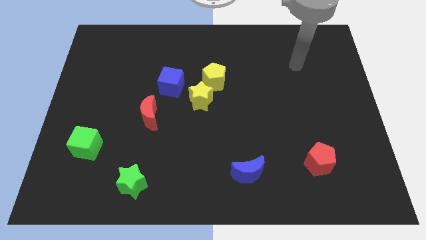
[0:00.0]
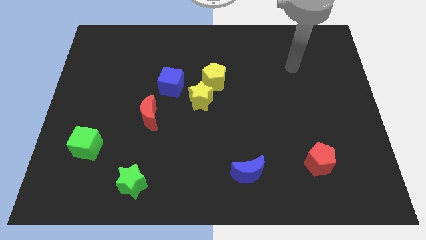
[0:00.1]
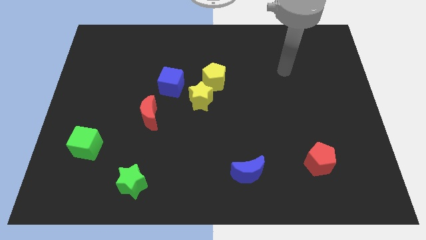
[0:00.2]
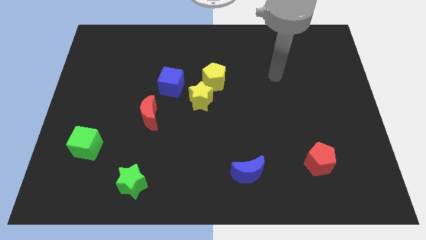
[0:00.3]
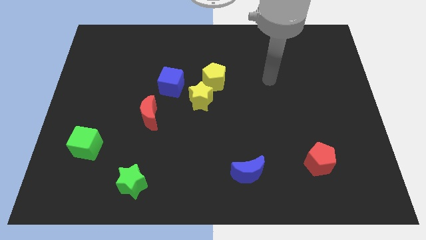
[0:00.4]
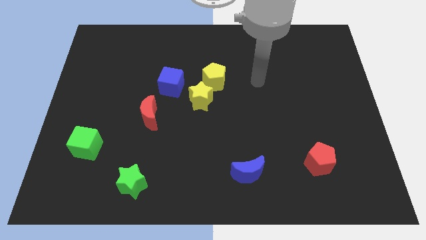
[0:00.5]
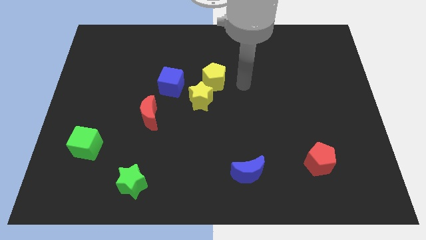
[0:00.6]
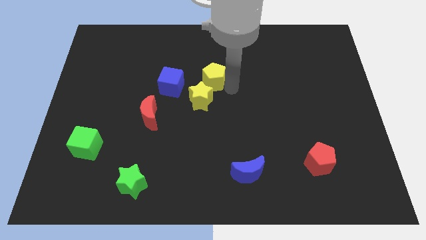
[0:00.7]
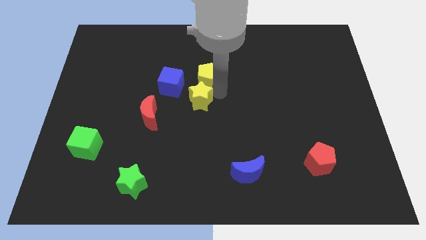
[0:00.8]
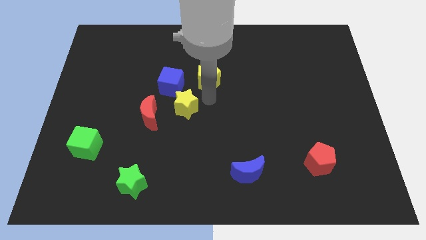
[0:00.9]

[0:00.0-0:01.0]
separate the yellow pentagon from the yellow star

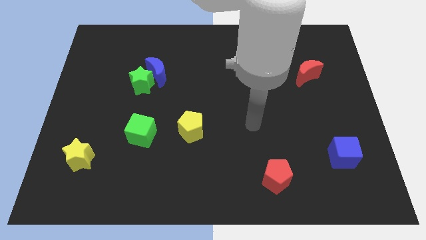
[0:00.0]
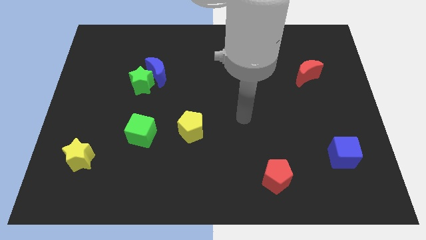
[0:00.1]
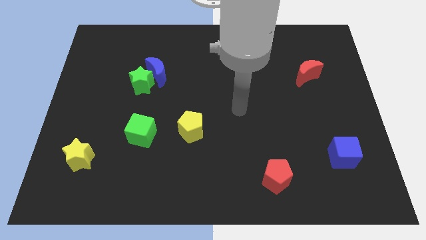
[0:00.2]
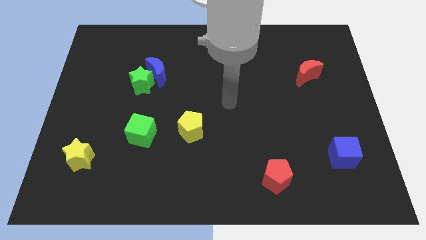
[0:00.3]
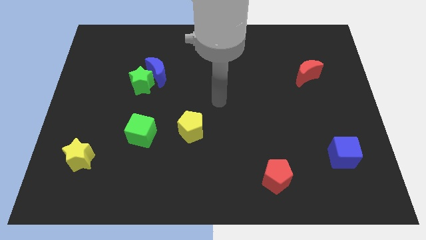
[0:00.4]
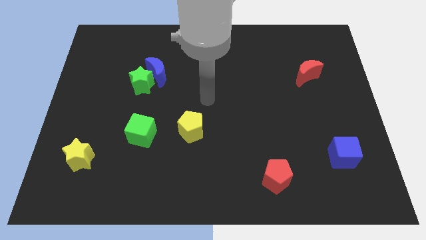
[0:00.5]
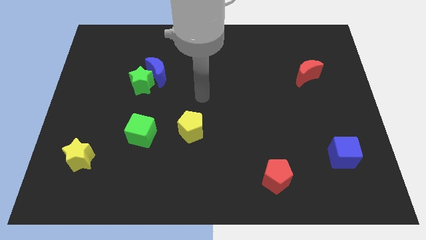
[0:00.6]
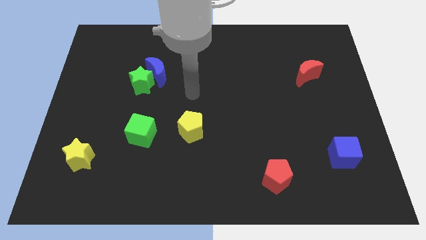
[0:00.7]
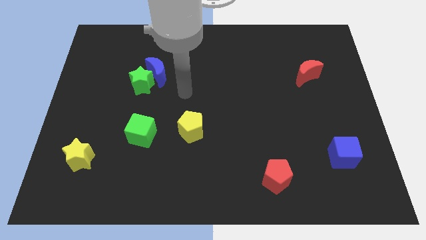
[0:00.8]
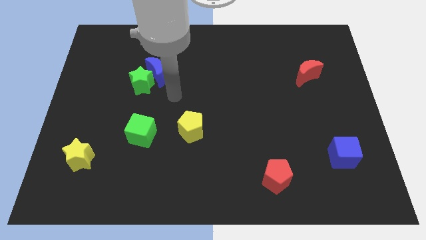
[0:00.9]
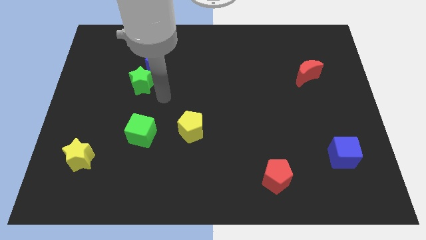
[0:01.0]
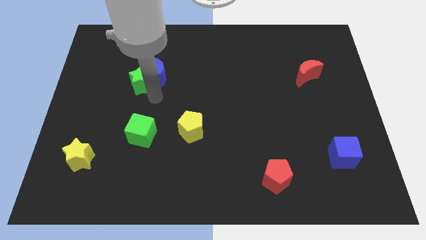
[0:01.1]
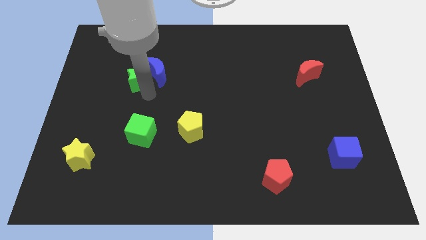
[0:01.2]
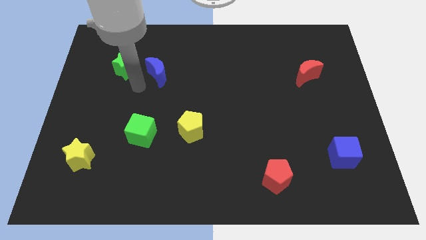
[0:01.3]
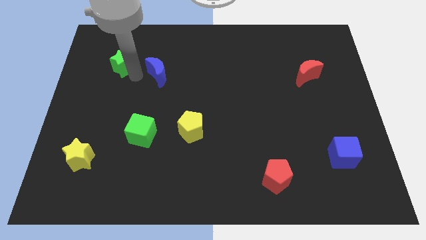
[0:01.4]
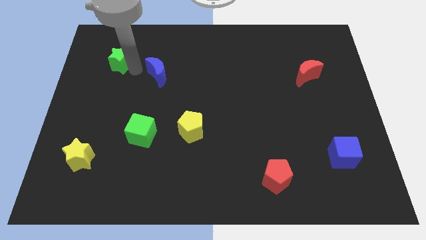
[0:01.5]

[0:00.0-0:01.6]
pull the blue moon apart from the green star

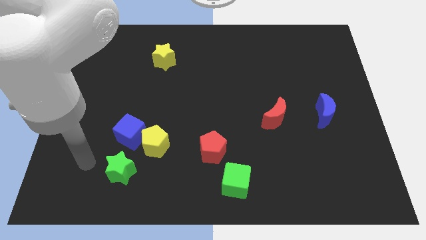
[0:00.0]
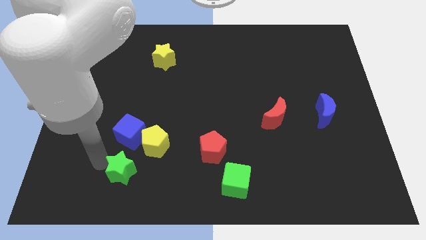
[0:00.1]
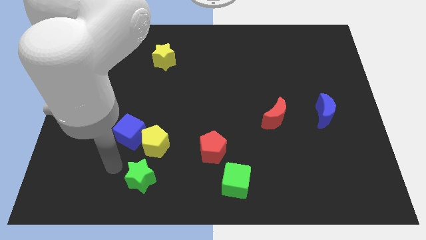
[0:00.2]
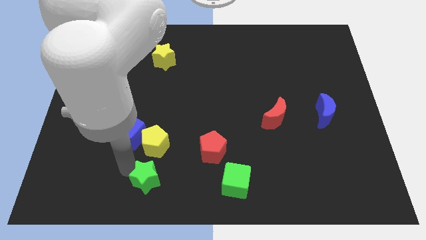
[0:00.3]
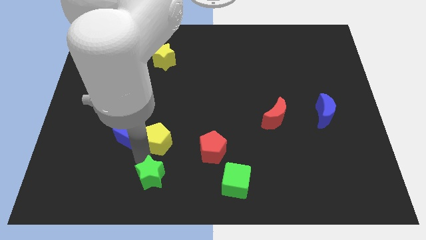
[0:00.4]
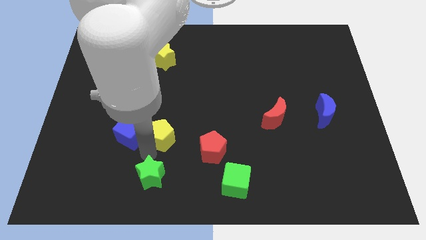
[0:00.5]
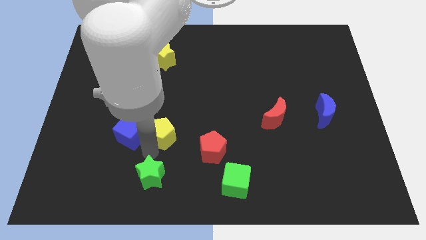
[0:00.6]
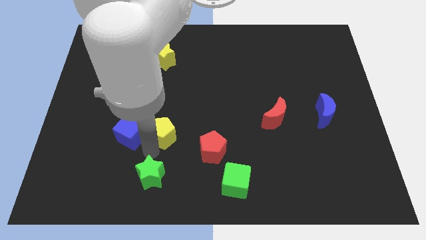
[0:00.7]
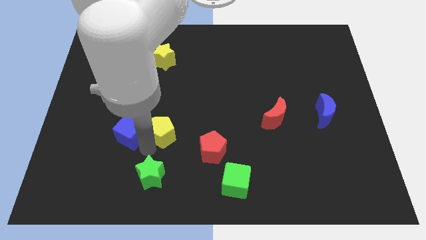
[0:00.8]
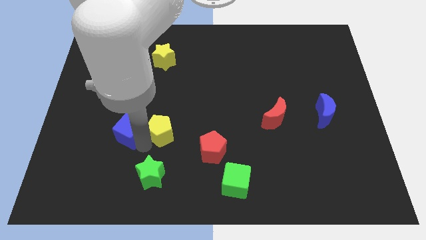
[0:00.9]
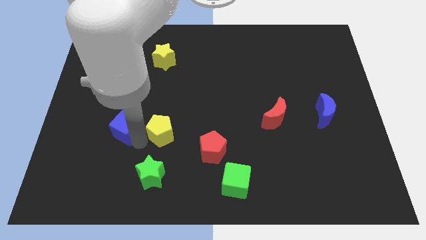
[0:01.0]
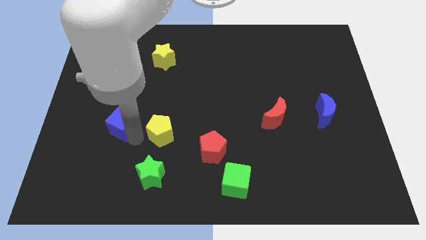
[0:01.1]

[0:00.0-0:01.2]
separate the blue cube from the yellow pentagon and green star

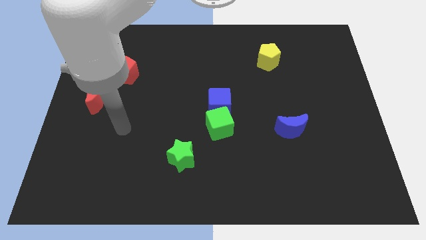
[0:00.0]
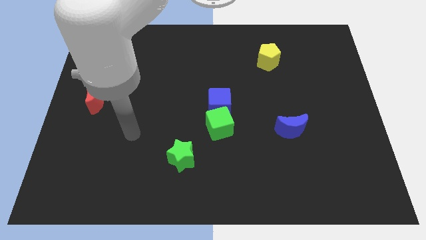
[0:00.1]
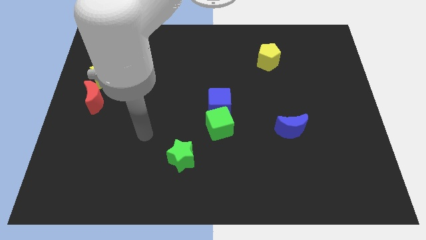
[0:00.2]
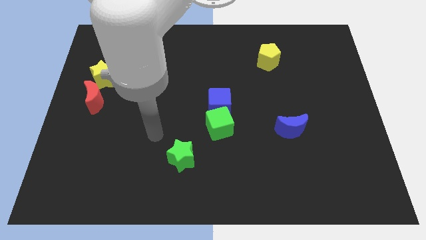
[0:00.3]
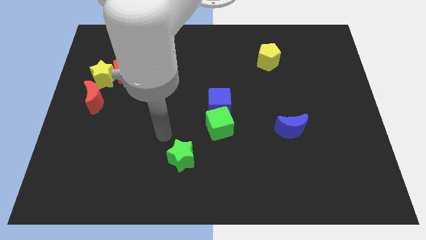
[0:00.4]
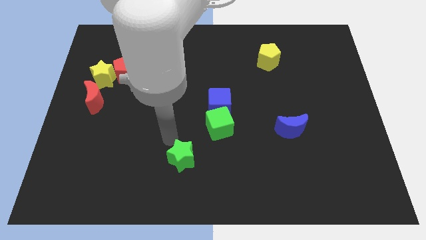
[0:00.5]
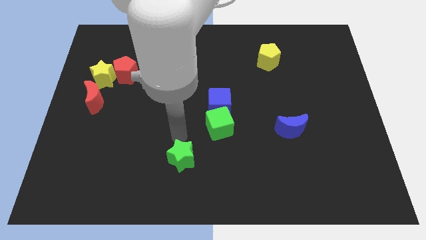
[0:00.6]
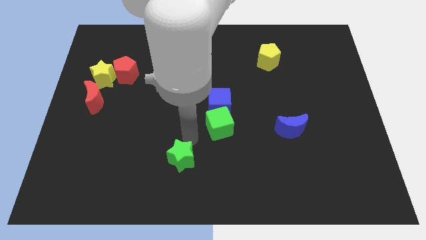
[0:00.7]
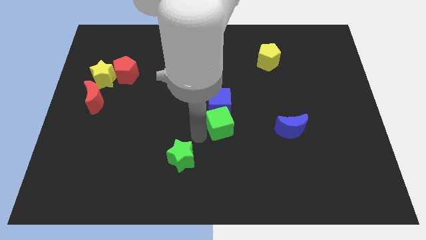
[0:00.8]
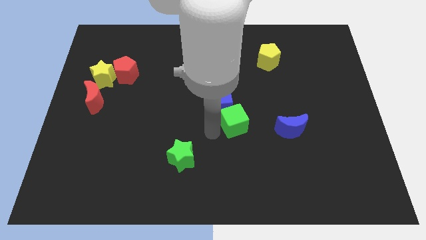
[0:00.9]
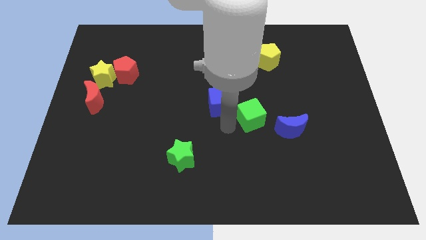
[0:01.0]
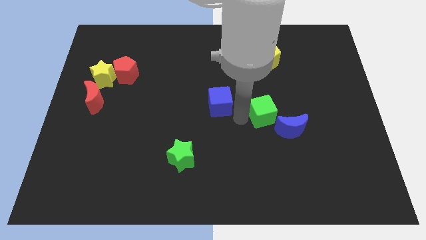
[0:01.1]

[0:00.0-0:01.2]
move the blue cube away from the green cube

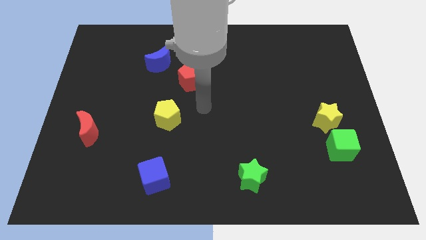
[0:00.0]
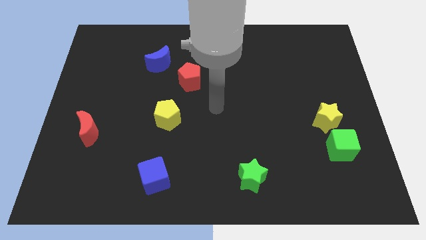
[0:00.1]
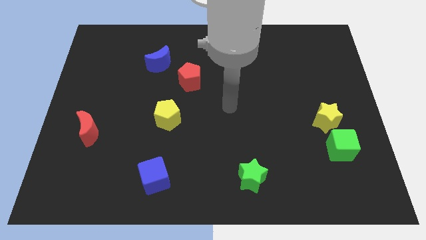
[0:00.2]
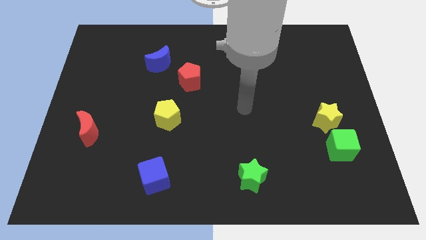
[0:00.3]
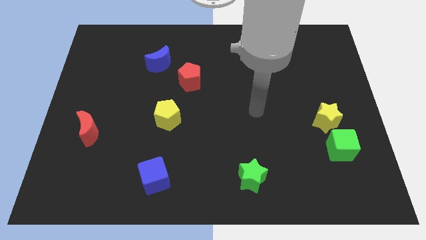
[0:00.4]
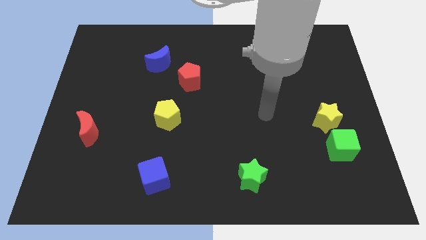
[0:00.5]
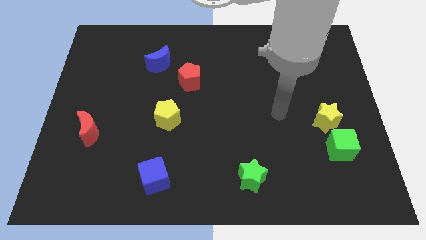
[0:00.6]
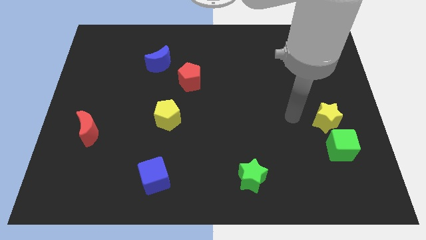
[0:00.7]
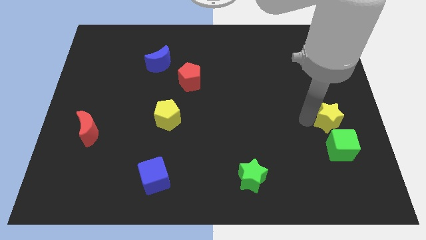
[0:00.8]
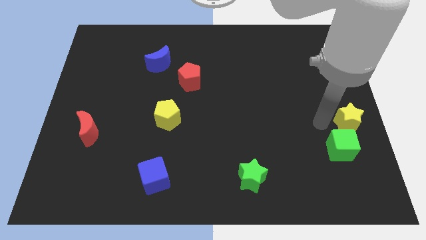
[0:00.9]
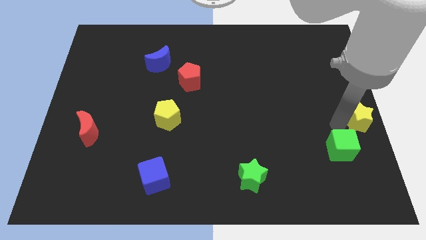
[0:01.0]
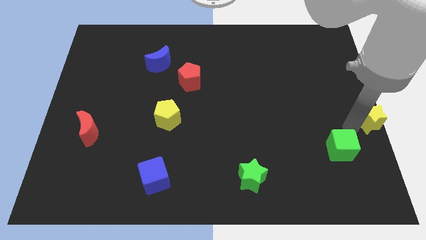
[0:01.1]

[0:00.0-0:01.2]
move the green cube away from the yellow star

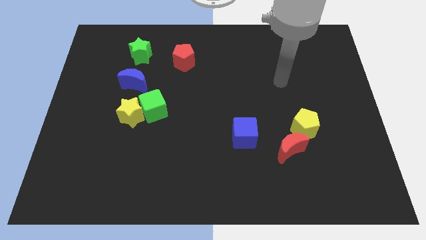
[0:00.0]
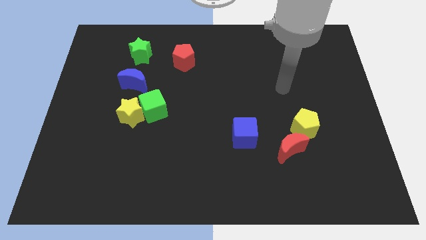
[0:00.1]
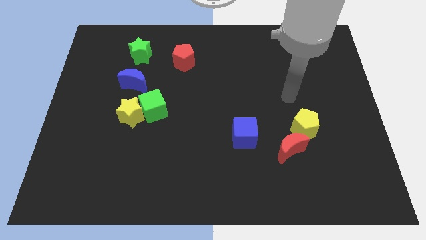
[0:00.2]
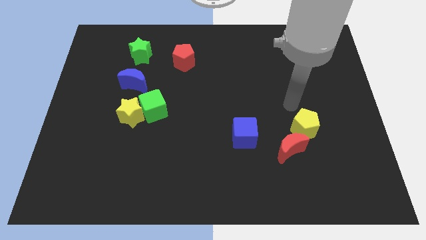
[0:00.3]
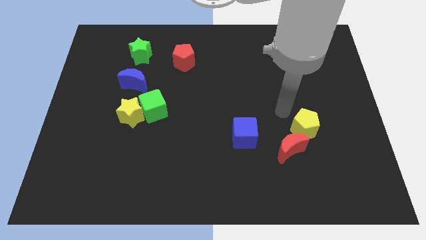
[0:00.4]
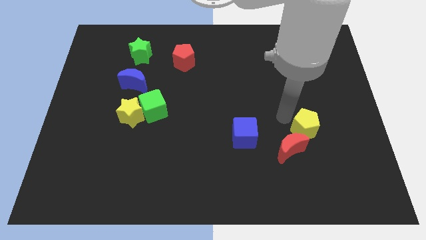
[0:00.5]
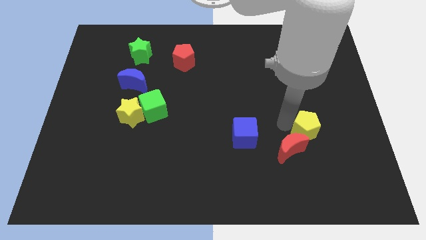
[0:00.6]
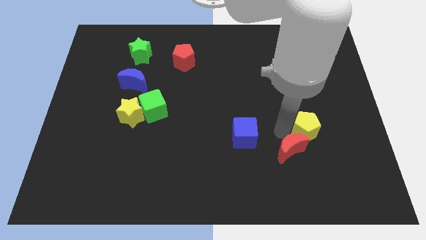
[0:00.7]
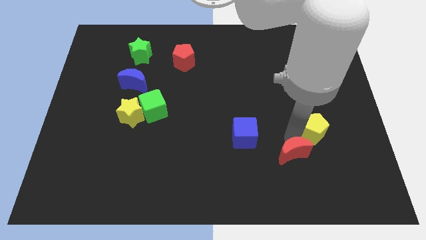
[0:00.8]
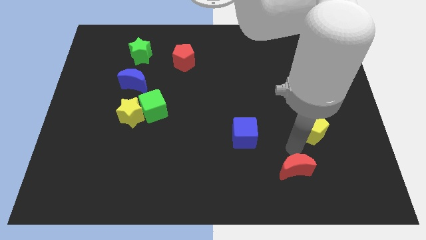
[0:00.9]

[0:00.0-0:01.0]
move the yellow pentagon away from the red moon

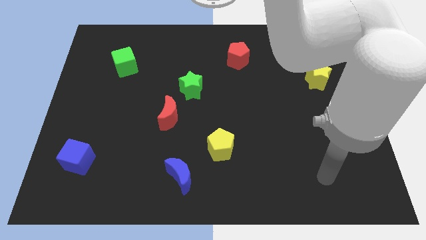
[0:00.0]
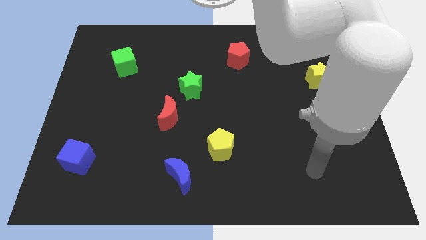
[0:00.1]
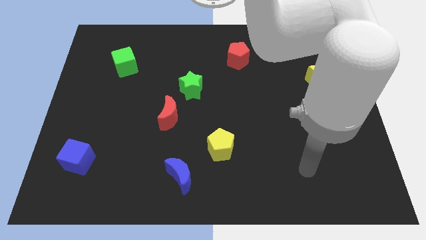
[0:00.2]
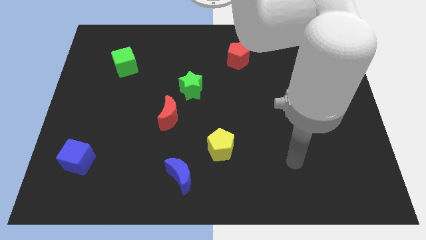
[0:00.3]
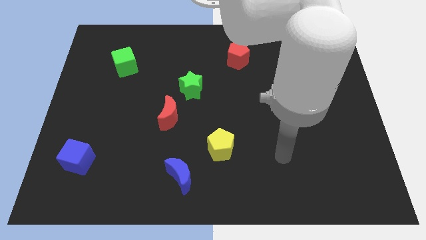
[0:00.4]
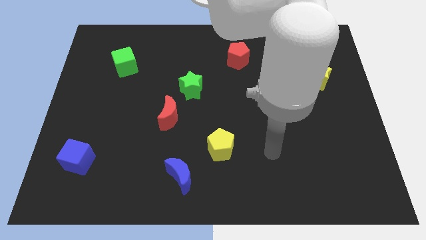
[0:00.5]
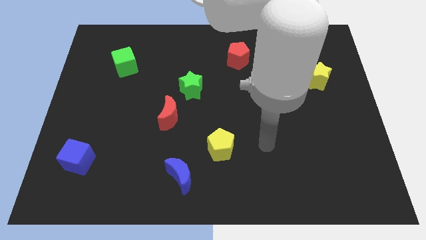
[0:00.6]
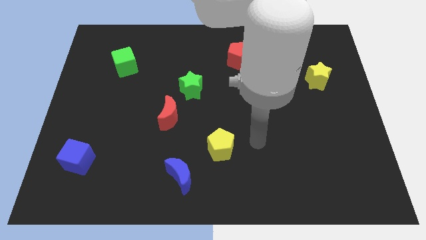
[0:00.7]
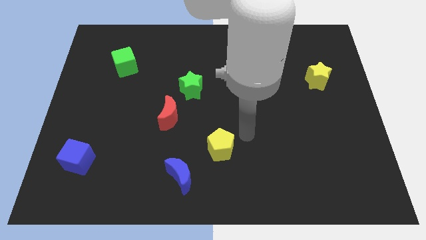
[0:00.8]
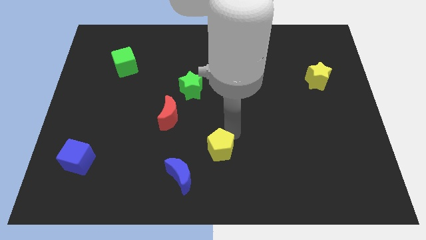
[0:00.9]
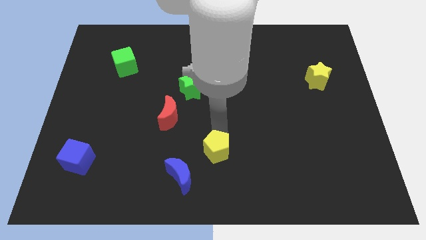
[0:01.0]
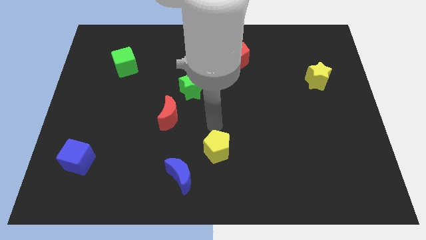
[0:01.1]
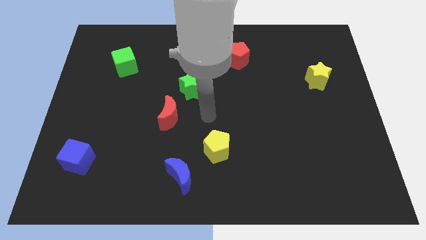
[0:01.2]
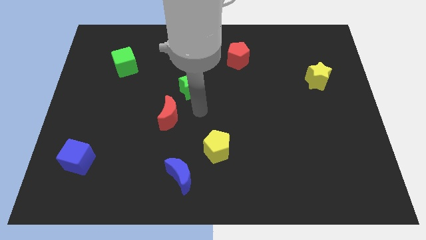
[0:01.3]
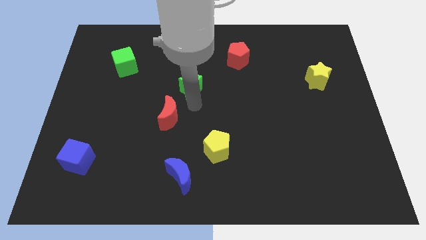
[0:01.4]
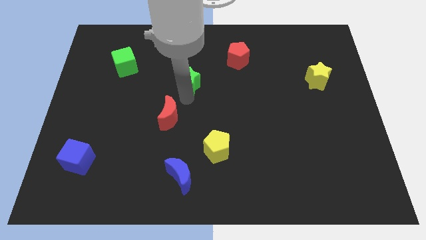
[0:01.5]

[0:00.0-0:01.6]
separate the red moon from the green star

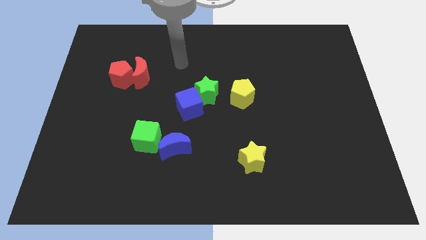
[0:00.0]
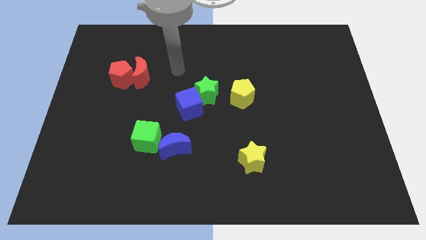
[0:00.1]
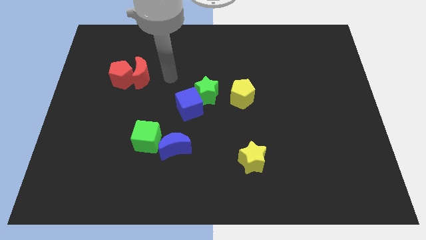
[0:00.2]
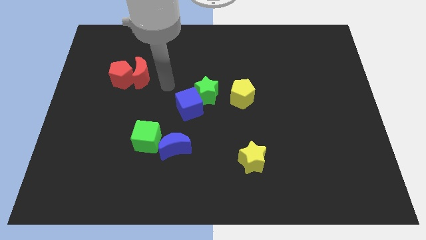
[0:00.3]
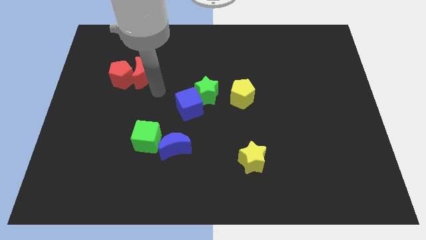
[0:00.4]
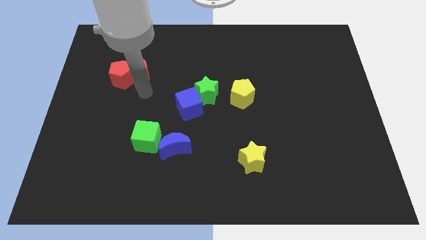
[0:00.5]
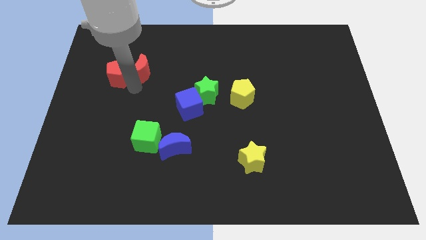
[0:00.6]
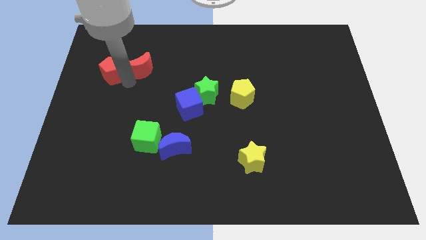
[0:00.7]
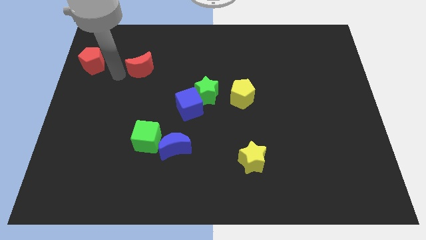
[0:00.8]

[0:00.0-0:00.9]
pull the red moon apart from the red pentagon
